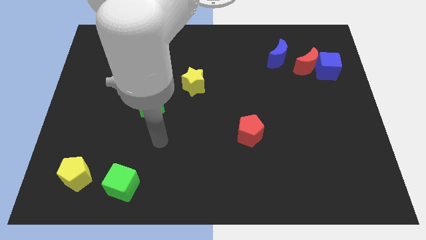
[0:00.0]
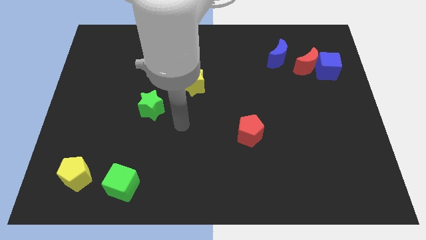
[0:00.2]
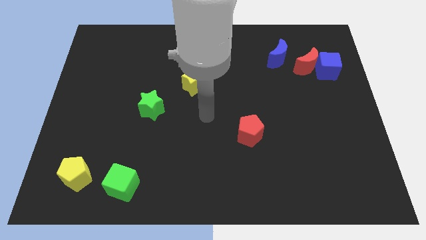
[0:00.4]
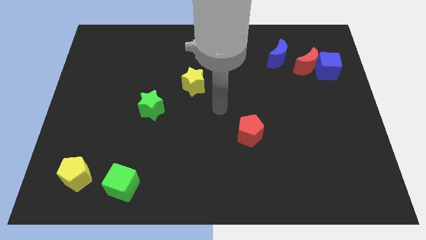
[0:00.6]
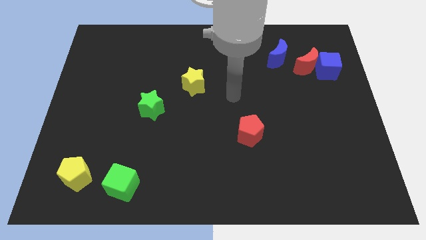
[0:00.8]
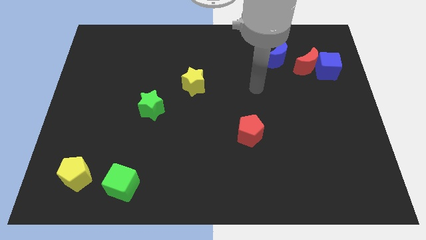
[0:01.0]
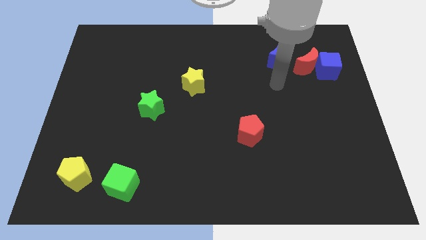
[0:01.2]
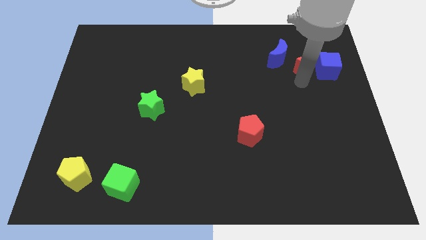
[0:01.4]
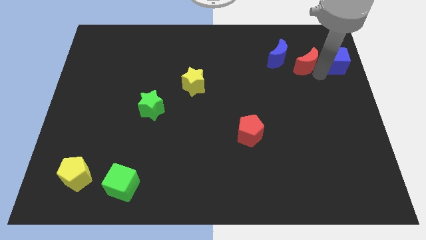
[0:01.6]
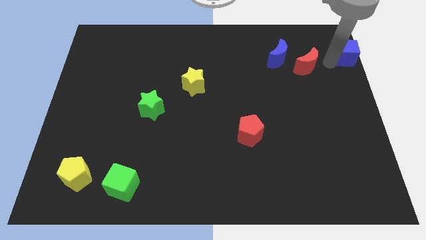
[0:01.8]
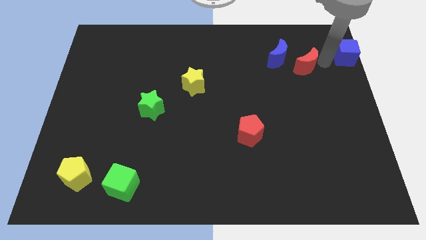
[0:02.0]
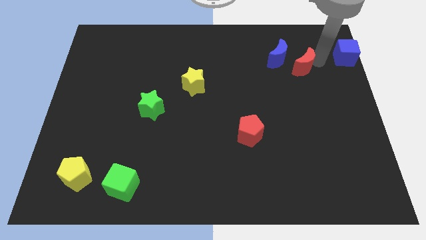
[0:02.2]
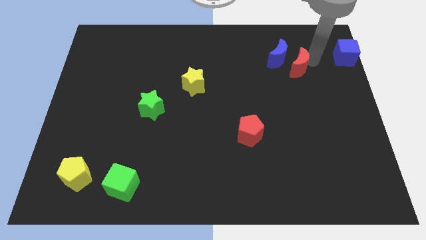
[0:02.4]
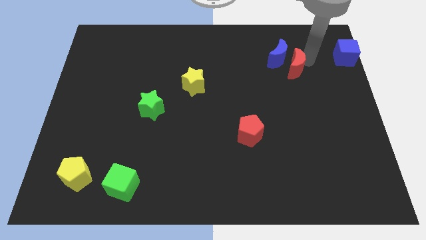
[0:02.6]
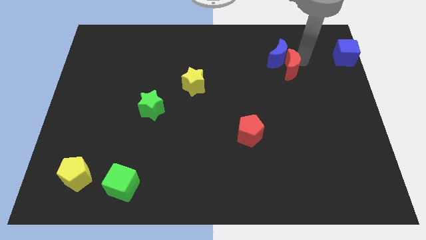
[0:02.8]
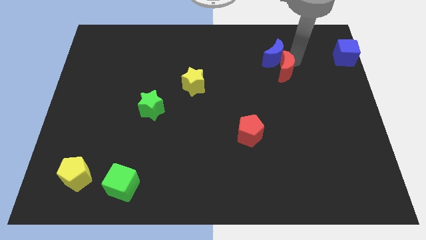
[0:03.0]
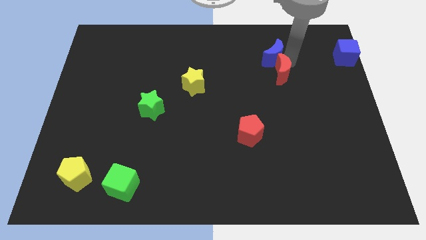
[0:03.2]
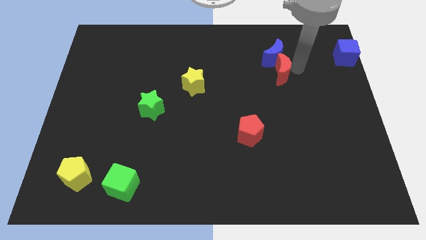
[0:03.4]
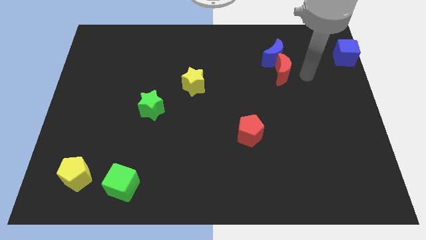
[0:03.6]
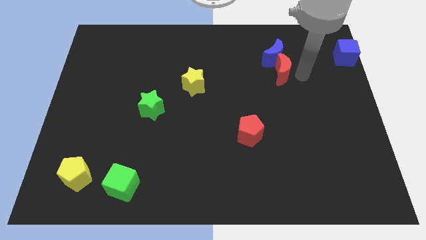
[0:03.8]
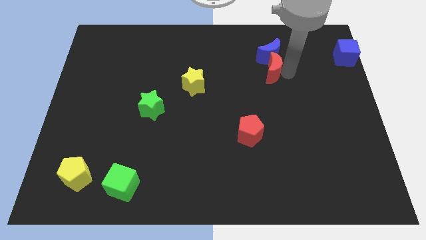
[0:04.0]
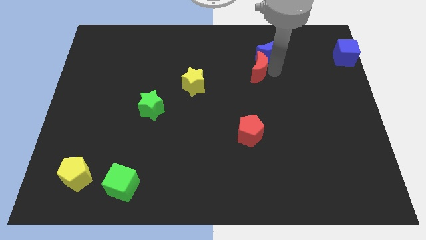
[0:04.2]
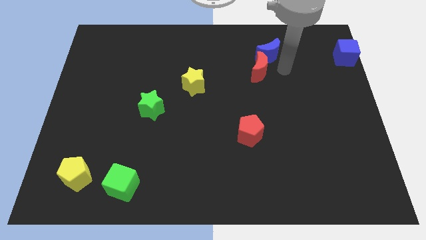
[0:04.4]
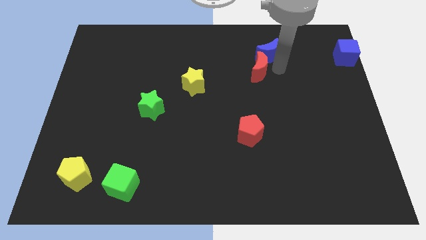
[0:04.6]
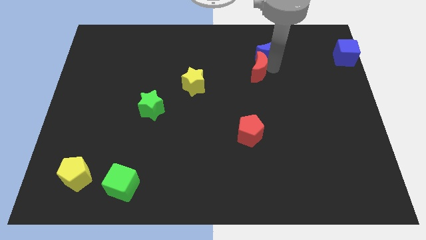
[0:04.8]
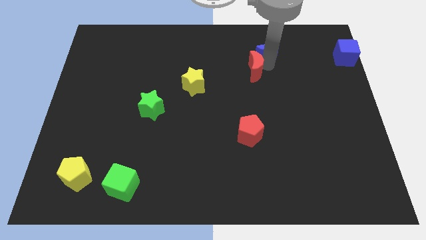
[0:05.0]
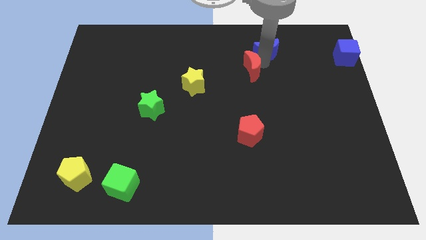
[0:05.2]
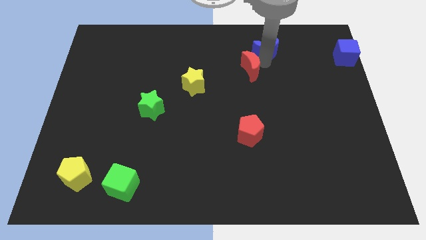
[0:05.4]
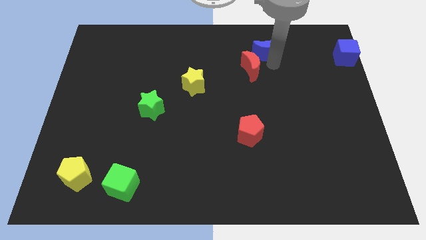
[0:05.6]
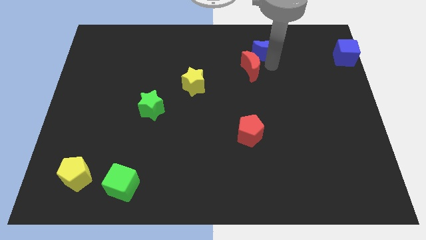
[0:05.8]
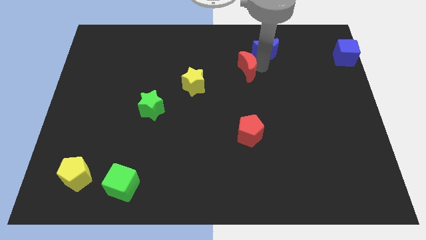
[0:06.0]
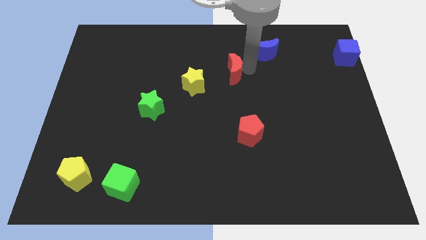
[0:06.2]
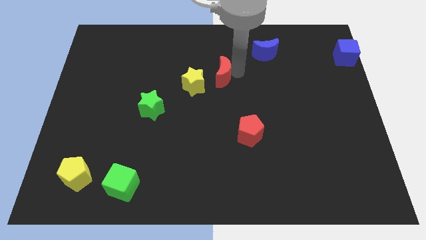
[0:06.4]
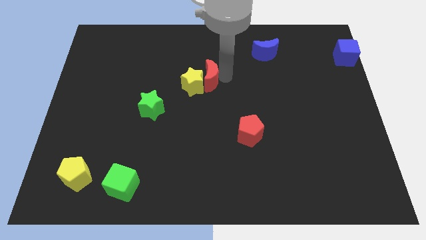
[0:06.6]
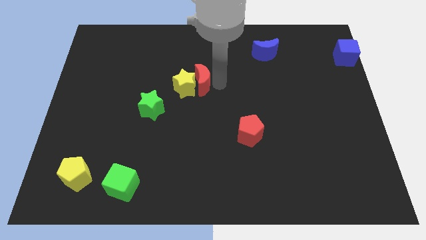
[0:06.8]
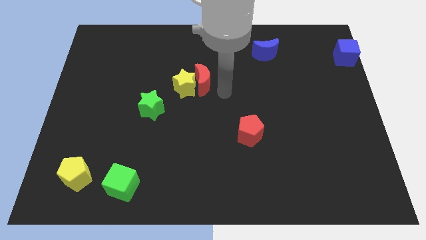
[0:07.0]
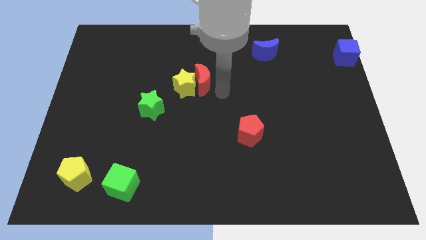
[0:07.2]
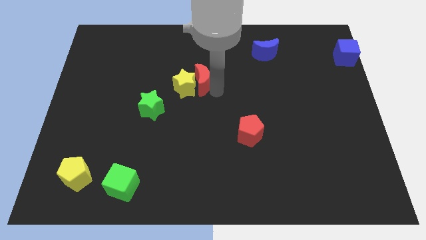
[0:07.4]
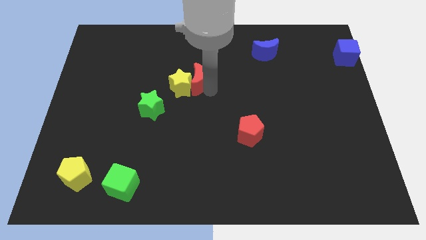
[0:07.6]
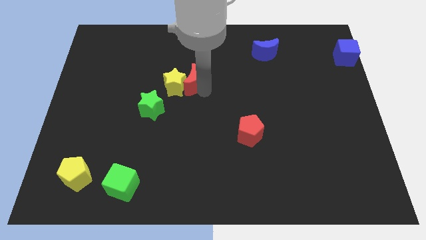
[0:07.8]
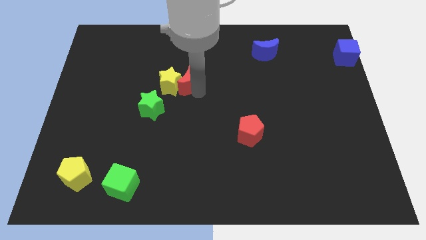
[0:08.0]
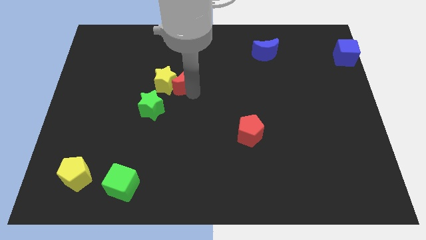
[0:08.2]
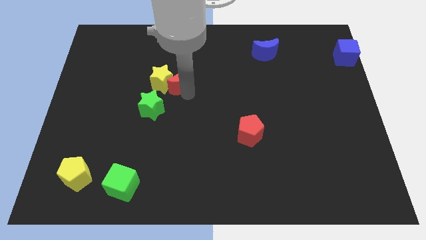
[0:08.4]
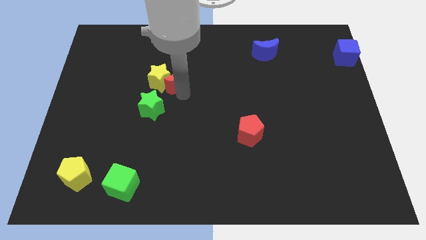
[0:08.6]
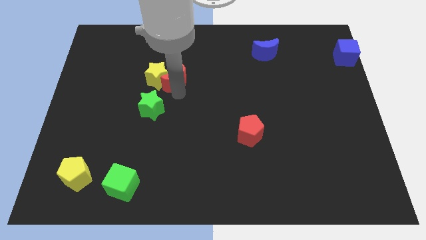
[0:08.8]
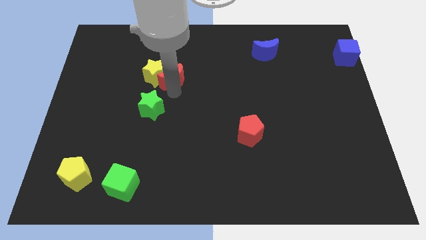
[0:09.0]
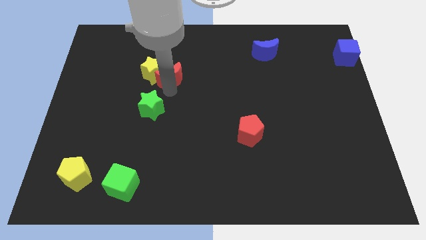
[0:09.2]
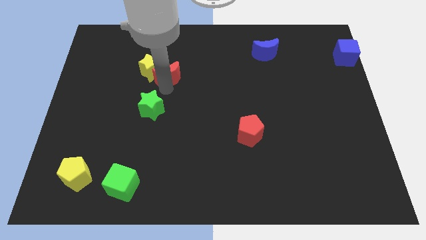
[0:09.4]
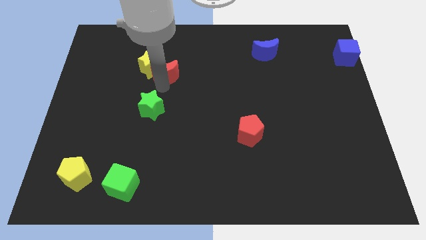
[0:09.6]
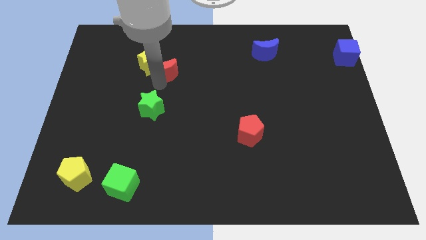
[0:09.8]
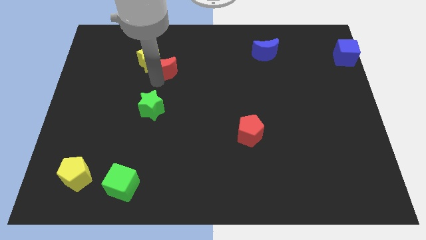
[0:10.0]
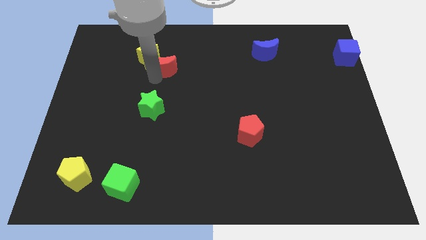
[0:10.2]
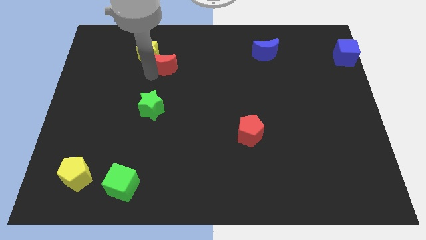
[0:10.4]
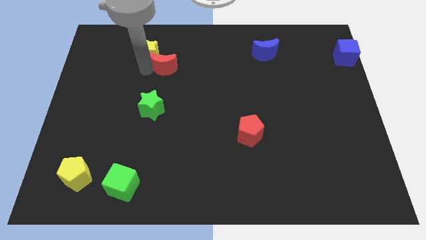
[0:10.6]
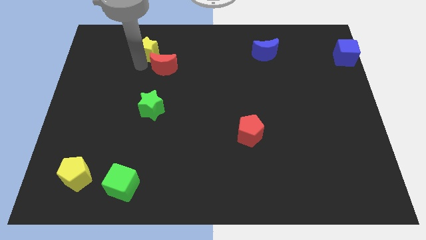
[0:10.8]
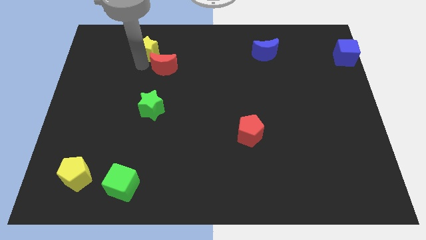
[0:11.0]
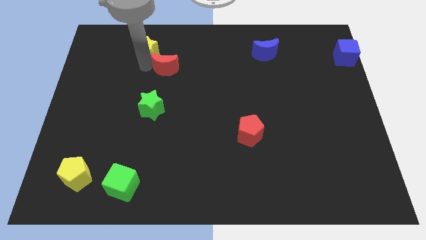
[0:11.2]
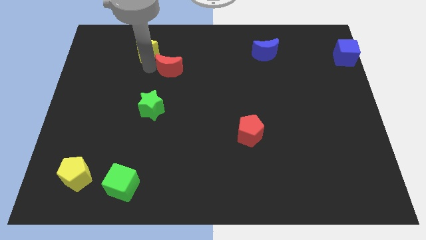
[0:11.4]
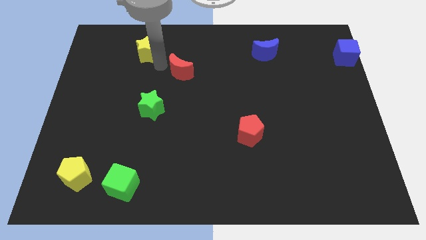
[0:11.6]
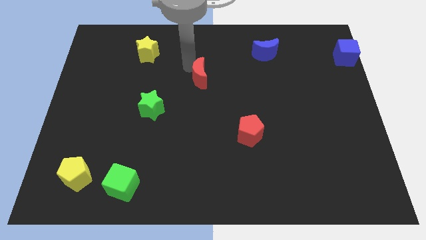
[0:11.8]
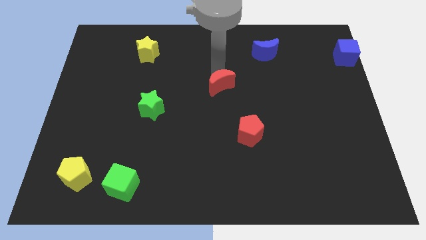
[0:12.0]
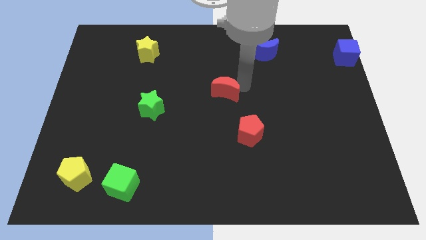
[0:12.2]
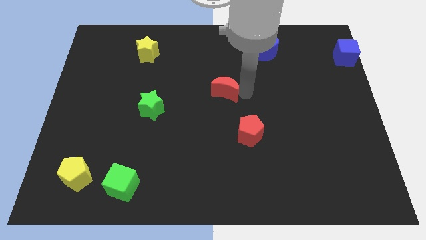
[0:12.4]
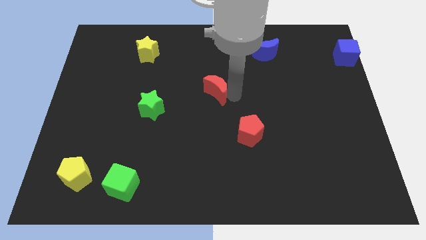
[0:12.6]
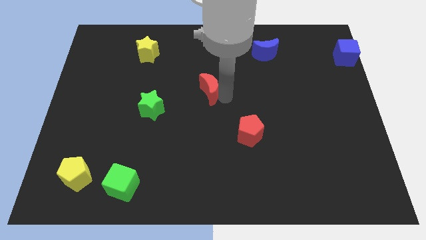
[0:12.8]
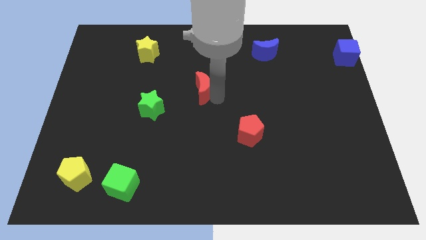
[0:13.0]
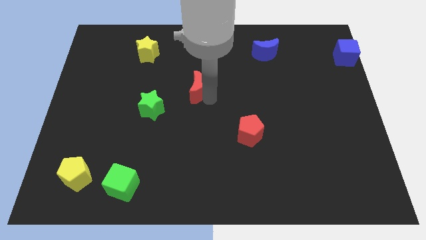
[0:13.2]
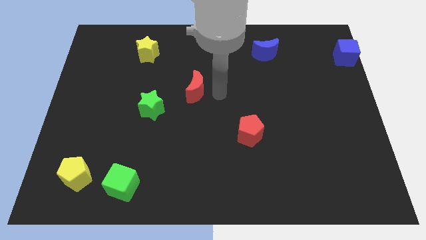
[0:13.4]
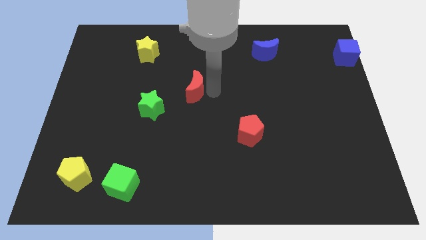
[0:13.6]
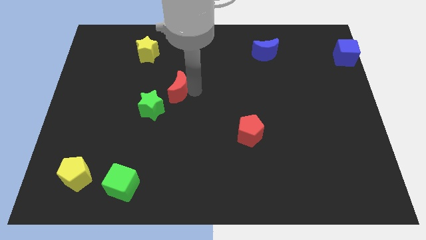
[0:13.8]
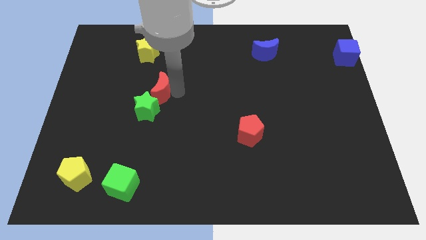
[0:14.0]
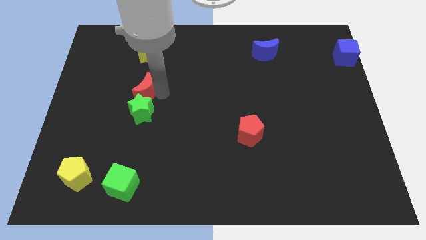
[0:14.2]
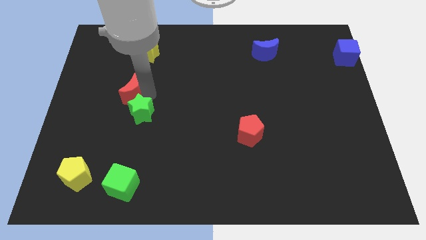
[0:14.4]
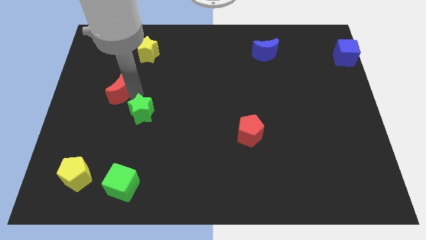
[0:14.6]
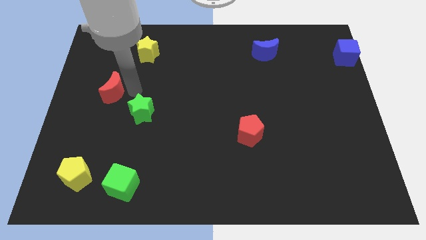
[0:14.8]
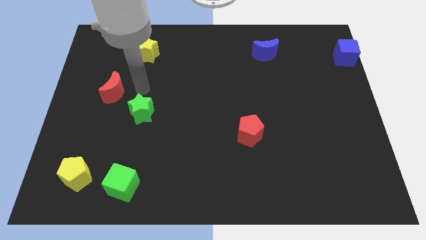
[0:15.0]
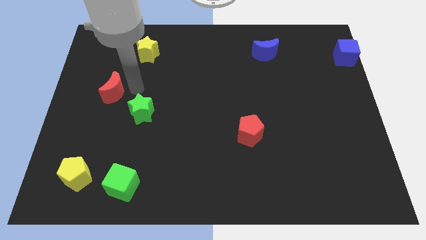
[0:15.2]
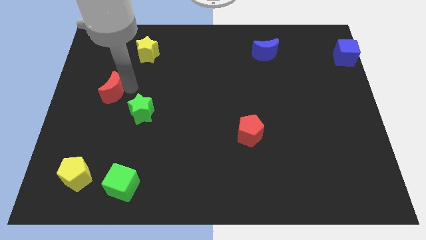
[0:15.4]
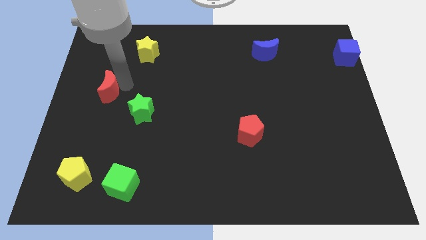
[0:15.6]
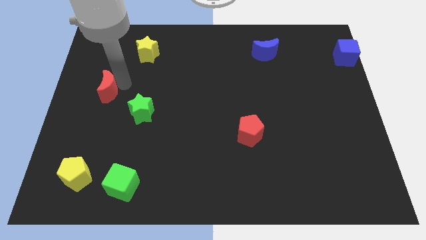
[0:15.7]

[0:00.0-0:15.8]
push the red moon to the left side
